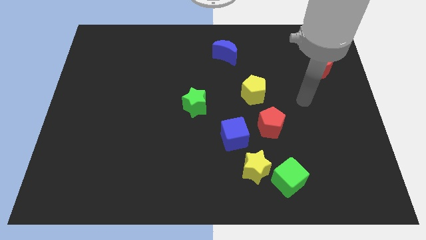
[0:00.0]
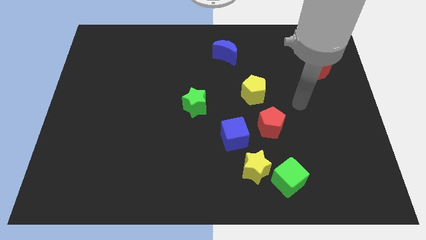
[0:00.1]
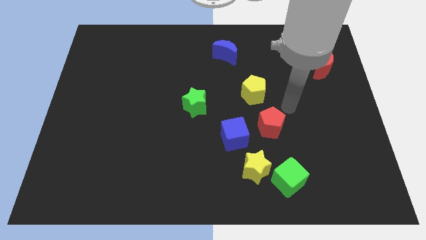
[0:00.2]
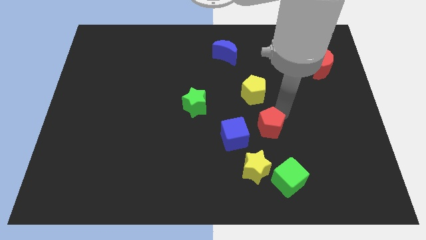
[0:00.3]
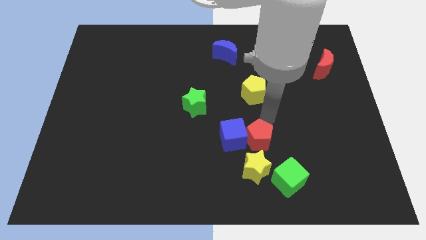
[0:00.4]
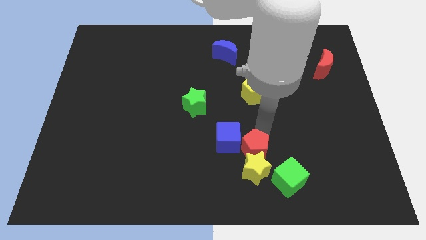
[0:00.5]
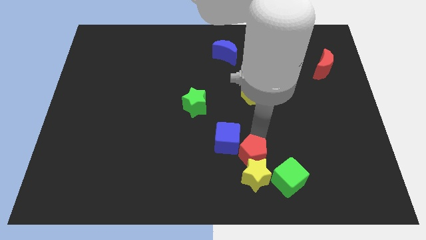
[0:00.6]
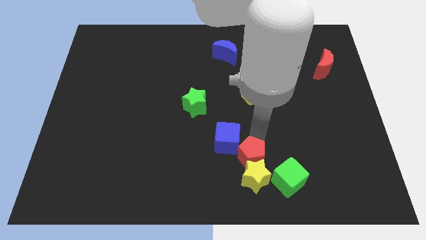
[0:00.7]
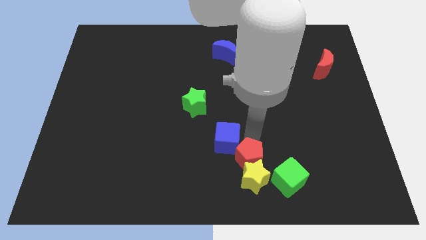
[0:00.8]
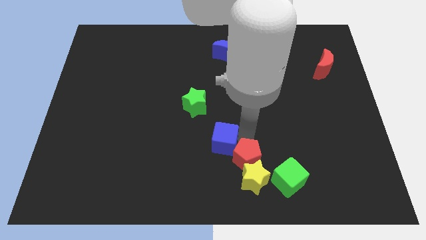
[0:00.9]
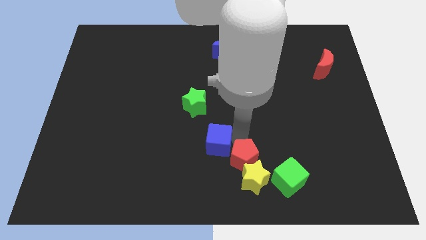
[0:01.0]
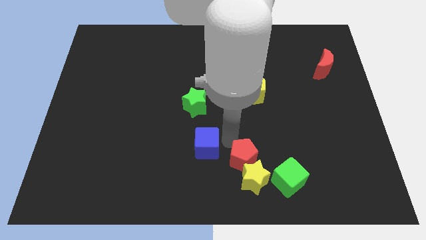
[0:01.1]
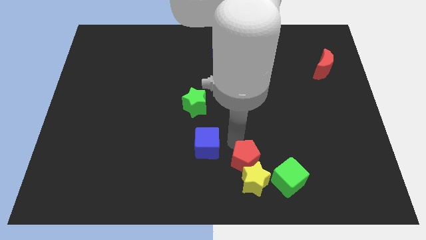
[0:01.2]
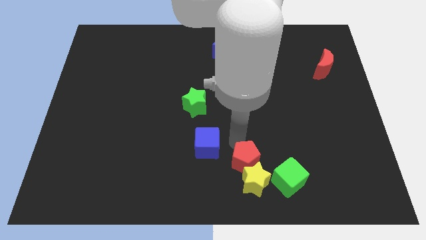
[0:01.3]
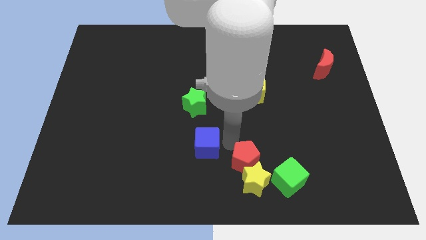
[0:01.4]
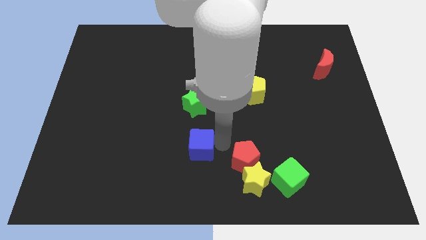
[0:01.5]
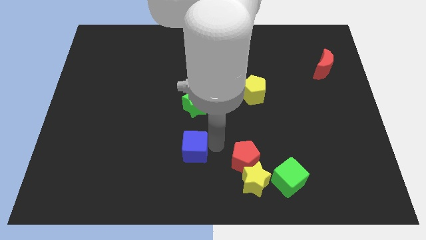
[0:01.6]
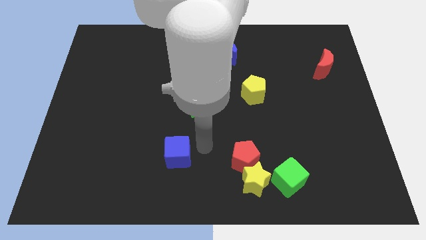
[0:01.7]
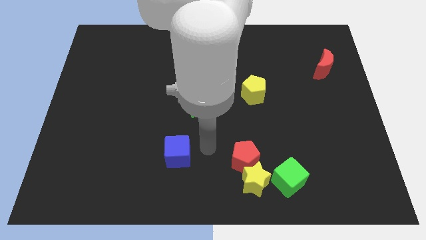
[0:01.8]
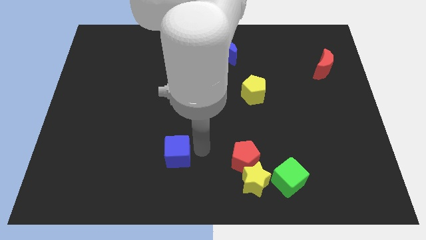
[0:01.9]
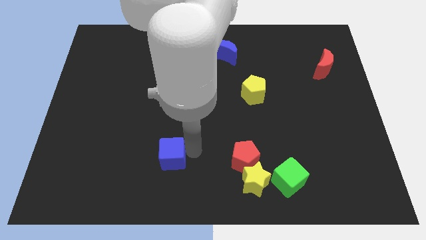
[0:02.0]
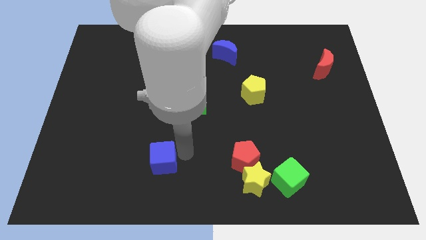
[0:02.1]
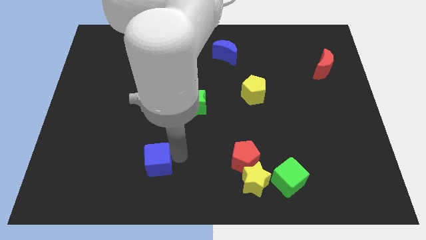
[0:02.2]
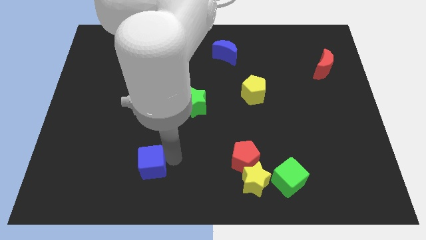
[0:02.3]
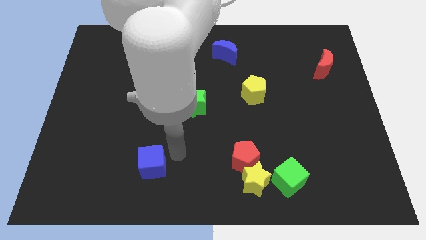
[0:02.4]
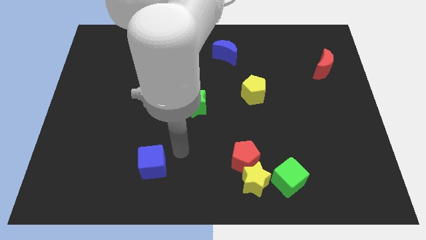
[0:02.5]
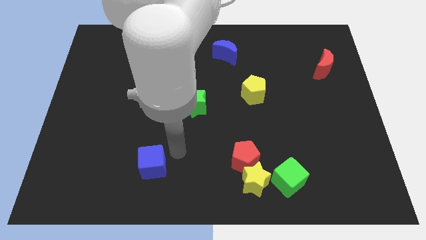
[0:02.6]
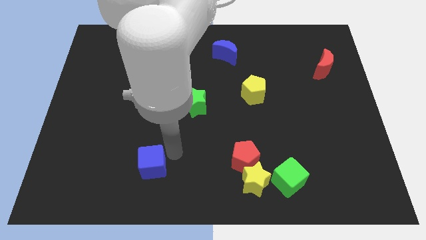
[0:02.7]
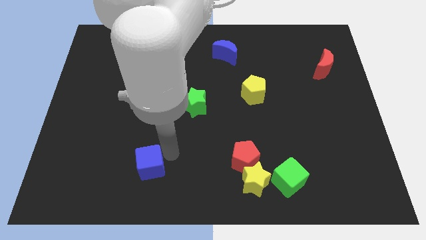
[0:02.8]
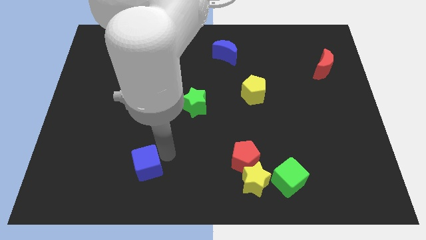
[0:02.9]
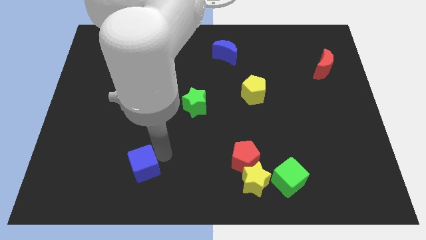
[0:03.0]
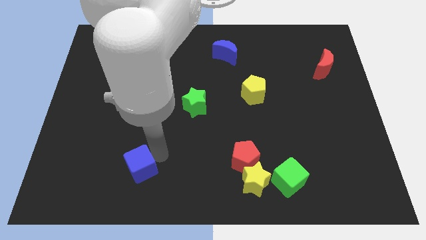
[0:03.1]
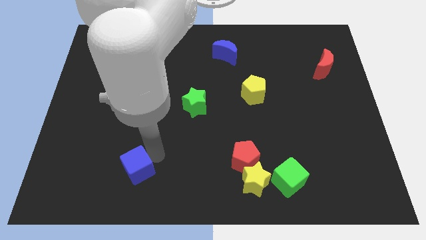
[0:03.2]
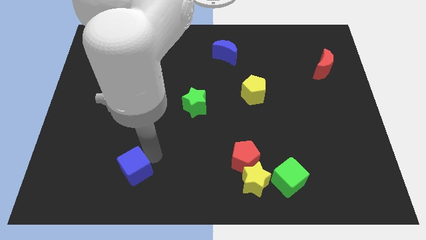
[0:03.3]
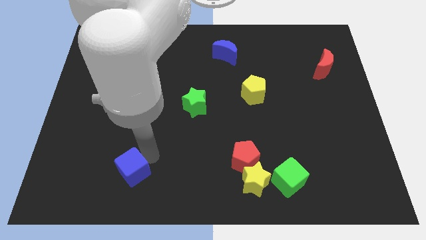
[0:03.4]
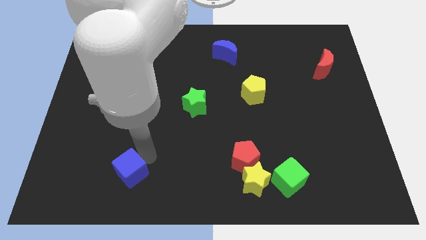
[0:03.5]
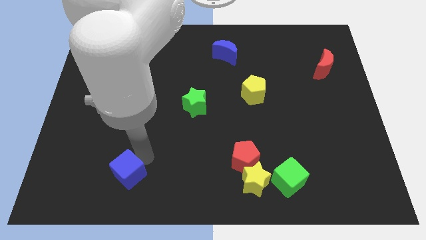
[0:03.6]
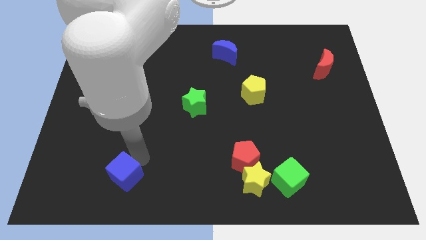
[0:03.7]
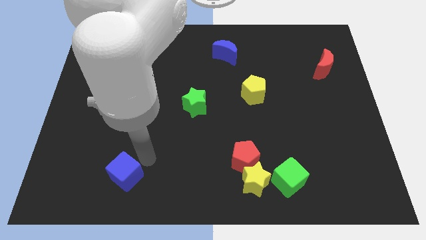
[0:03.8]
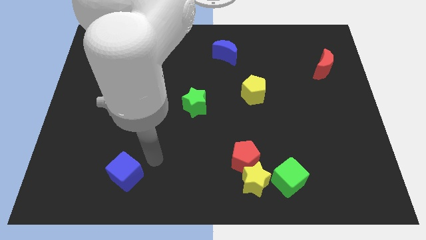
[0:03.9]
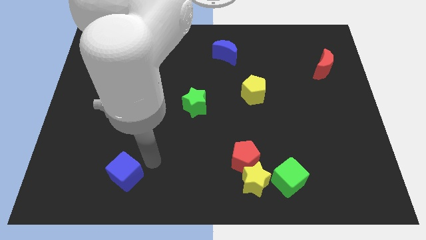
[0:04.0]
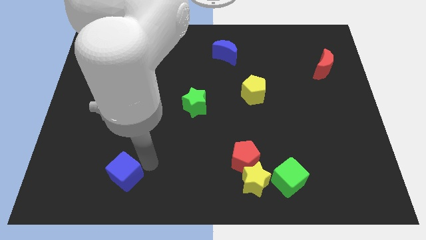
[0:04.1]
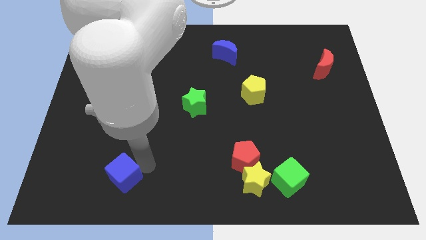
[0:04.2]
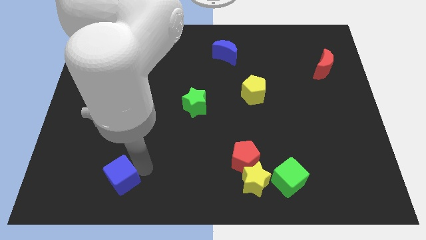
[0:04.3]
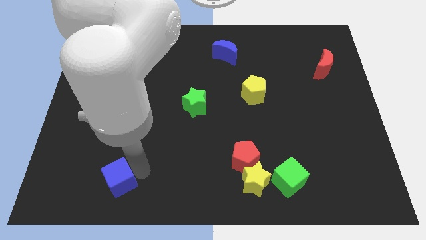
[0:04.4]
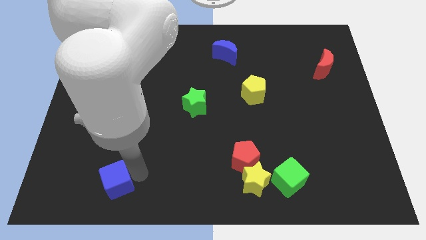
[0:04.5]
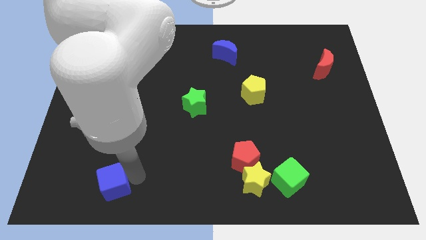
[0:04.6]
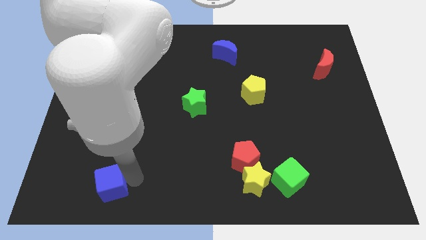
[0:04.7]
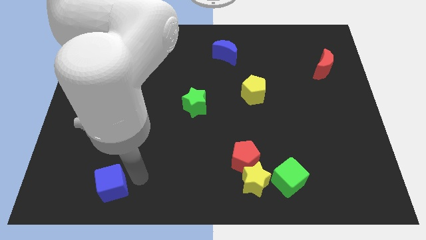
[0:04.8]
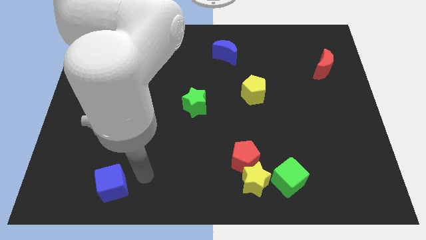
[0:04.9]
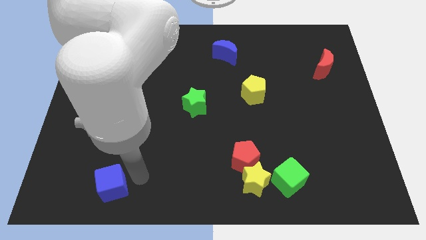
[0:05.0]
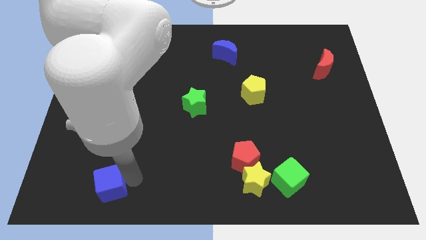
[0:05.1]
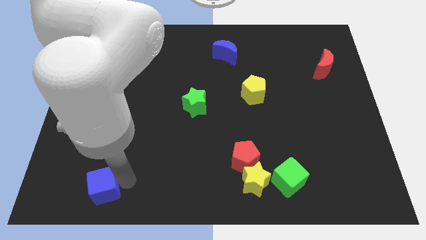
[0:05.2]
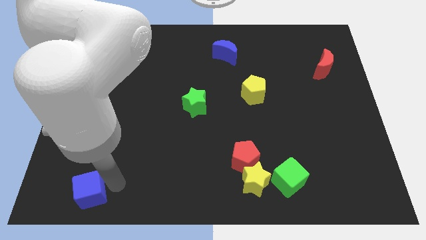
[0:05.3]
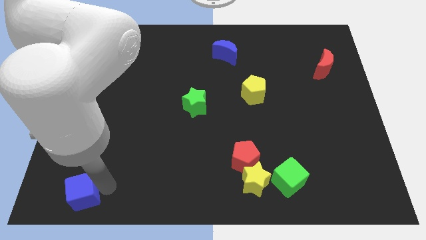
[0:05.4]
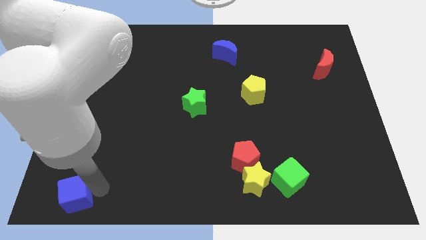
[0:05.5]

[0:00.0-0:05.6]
put the blue cube to the bottom left of the board
